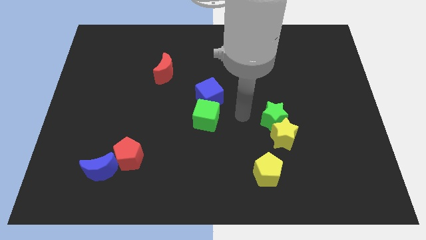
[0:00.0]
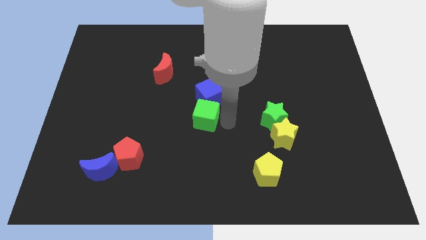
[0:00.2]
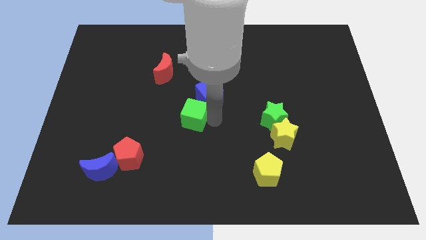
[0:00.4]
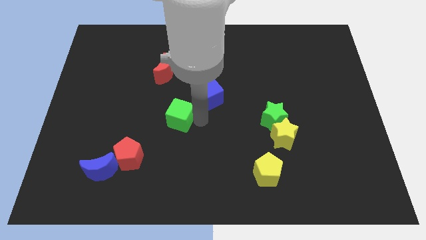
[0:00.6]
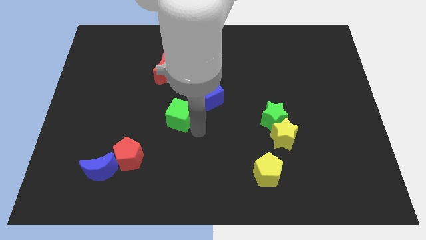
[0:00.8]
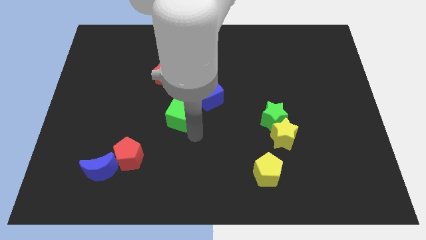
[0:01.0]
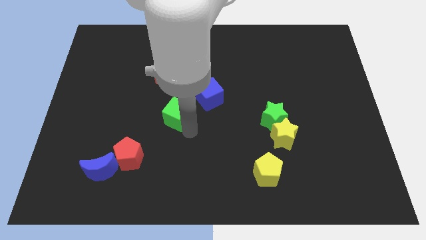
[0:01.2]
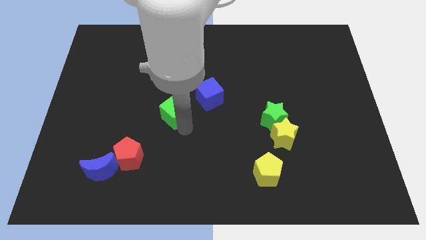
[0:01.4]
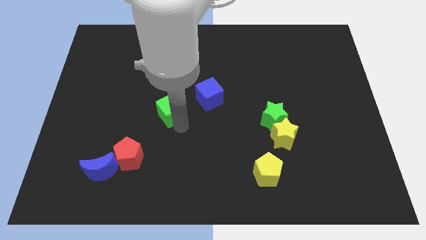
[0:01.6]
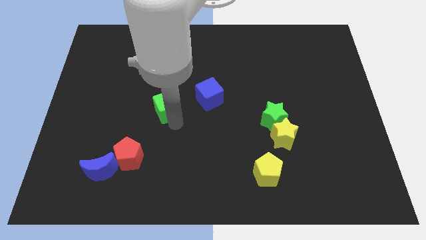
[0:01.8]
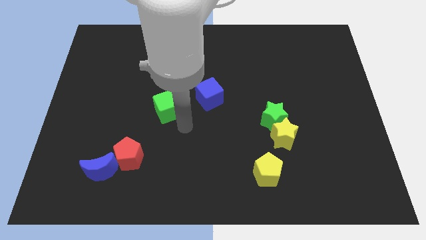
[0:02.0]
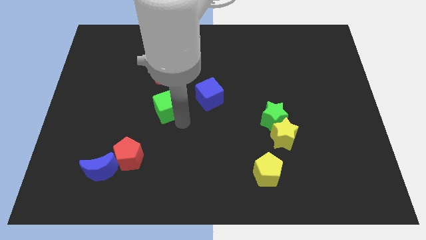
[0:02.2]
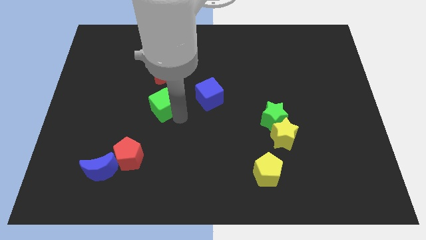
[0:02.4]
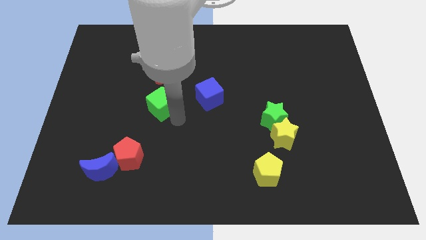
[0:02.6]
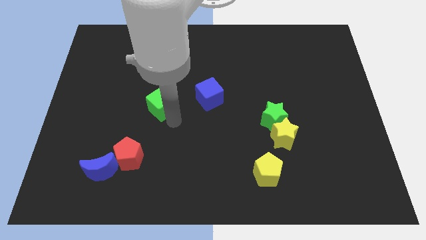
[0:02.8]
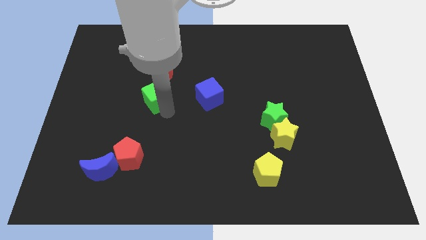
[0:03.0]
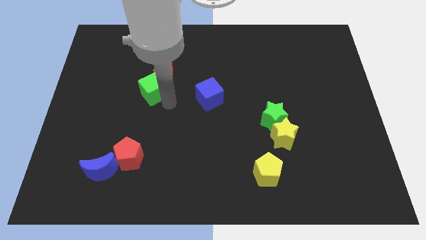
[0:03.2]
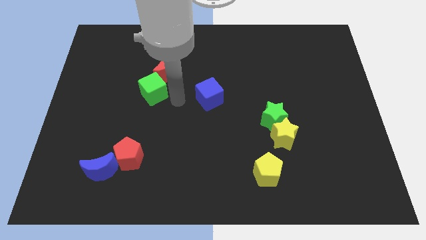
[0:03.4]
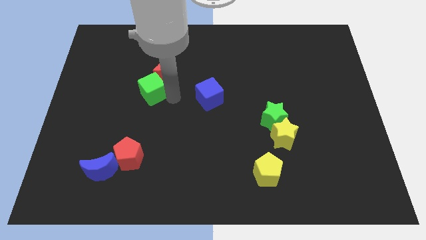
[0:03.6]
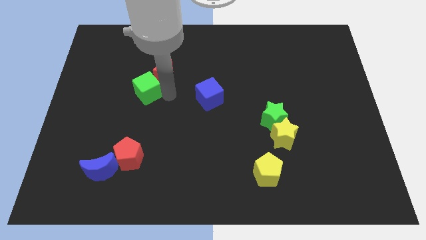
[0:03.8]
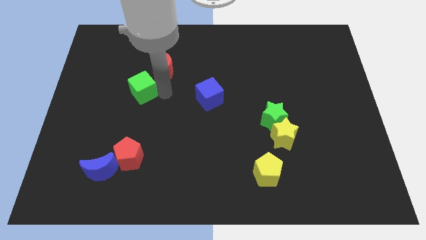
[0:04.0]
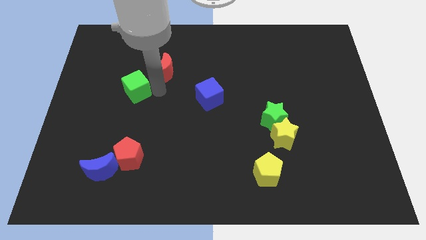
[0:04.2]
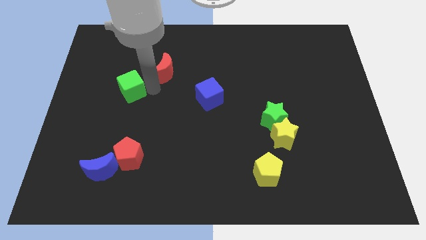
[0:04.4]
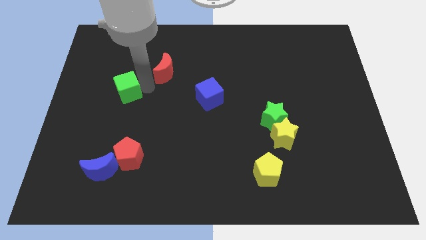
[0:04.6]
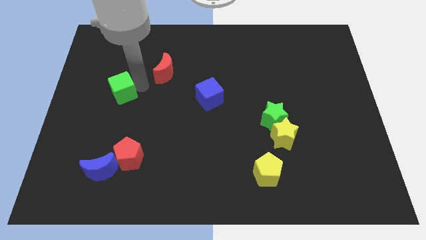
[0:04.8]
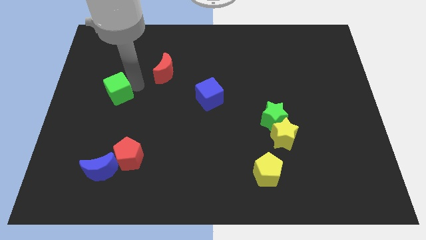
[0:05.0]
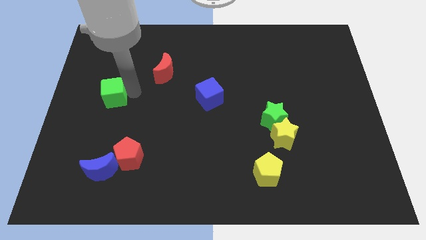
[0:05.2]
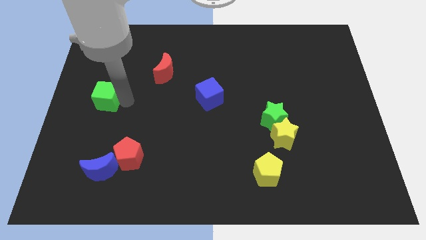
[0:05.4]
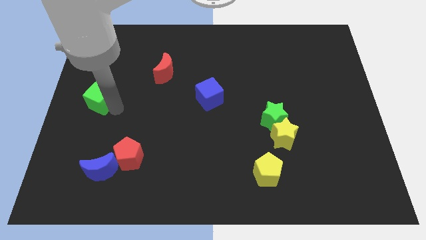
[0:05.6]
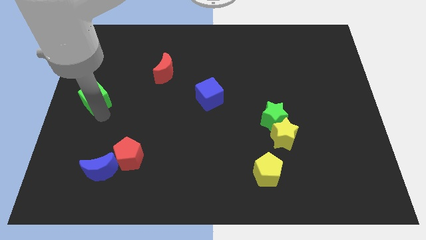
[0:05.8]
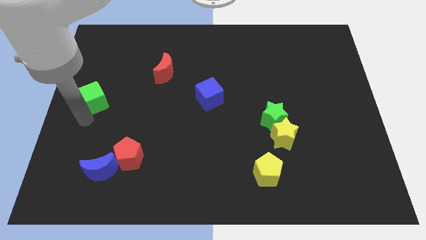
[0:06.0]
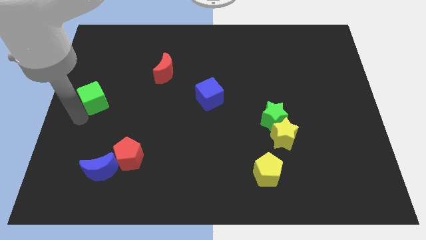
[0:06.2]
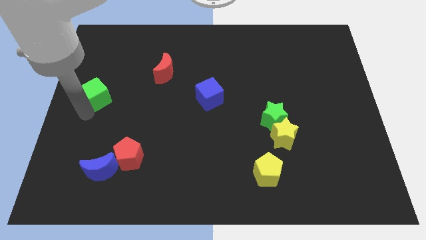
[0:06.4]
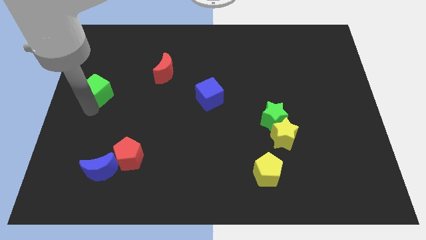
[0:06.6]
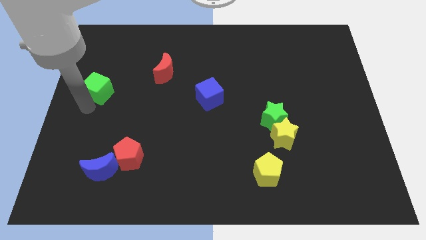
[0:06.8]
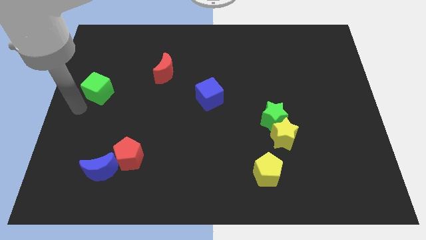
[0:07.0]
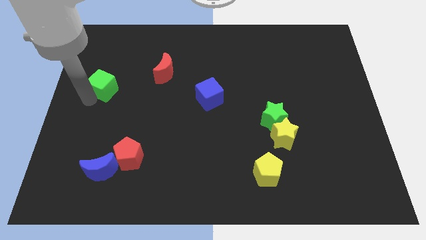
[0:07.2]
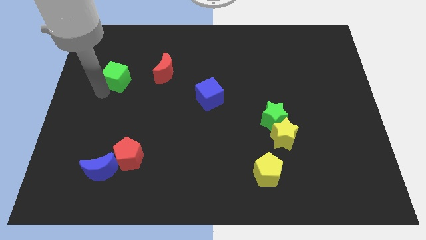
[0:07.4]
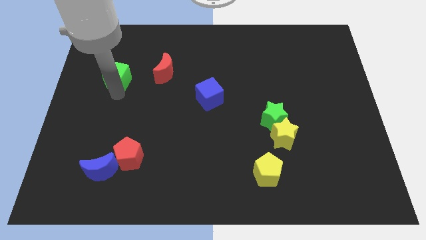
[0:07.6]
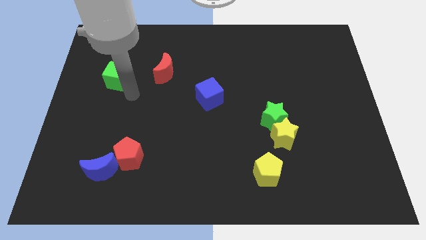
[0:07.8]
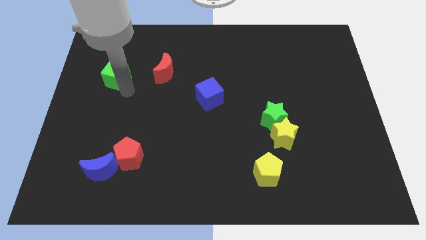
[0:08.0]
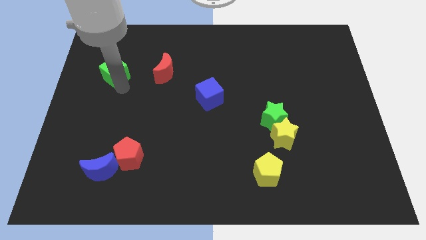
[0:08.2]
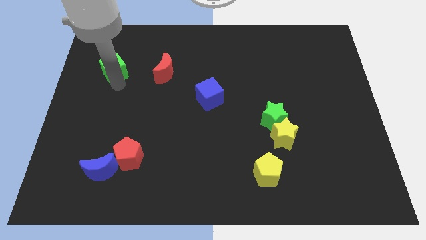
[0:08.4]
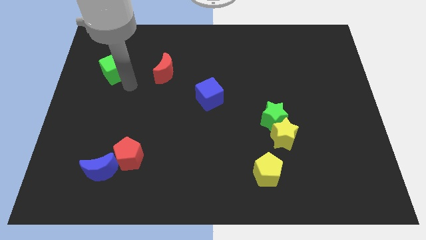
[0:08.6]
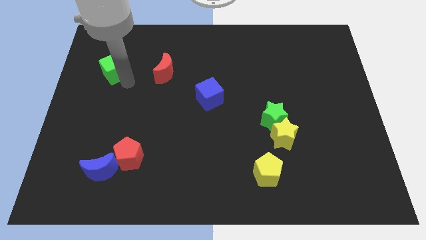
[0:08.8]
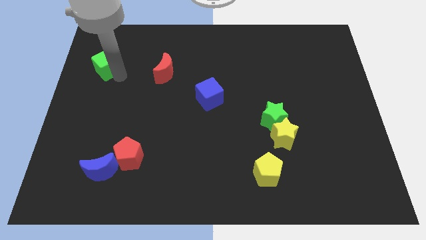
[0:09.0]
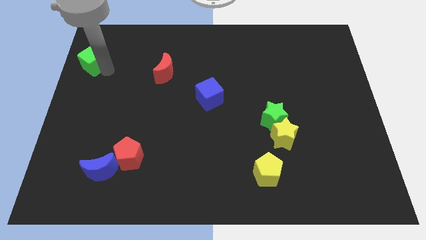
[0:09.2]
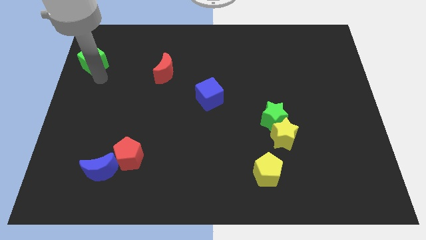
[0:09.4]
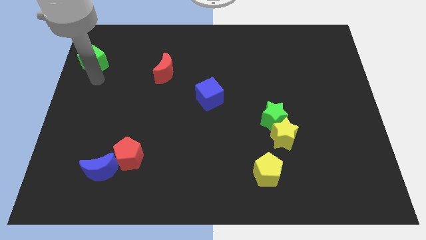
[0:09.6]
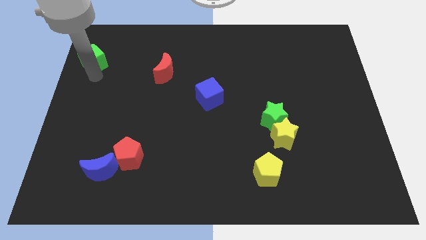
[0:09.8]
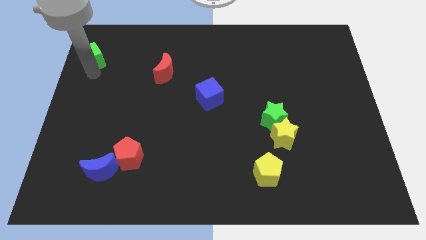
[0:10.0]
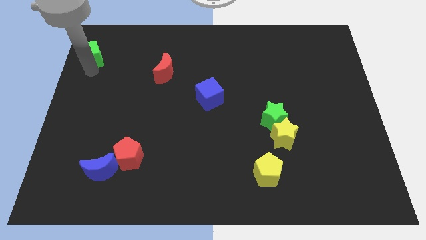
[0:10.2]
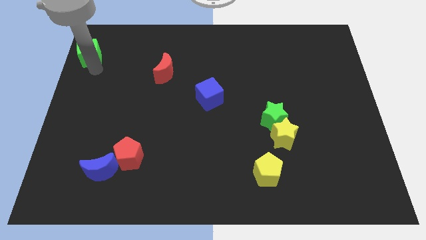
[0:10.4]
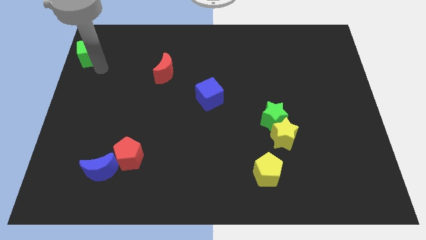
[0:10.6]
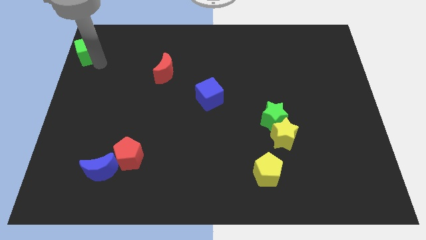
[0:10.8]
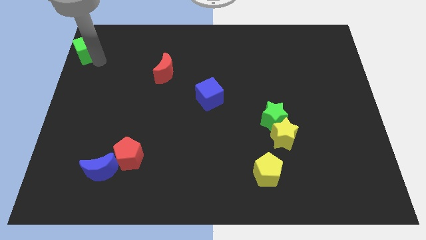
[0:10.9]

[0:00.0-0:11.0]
push the green cube to the upper left corner

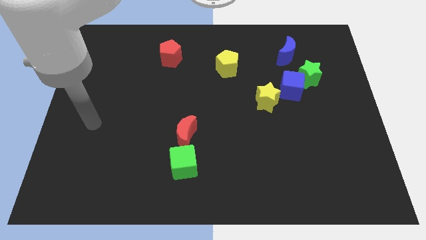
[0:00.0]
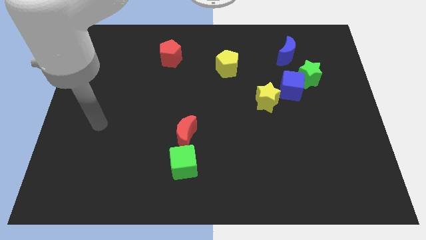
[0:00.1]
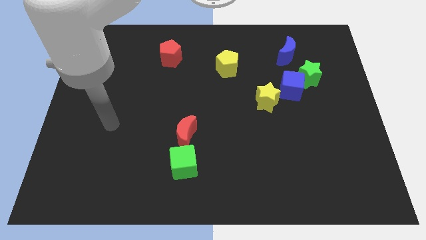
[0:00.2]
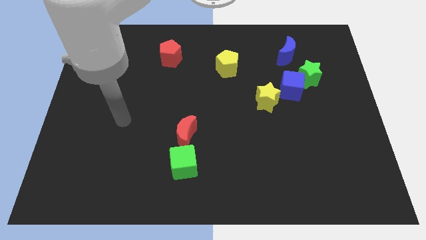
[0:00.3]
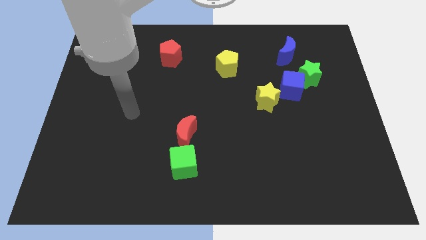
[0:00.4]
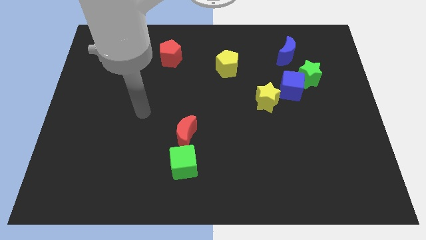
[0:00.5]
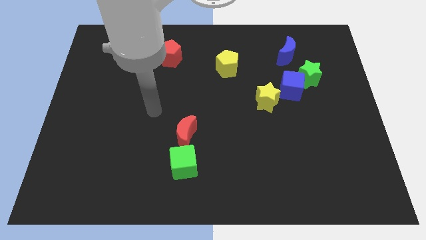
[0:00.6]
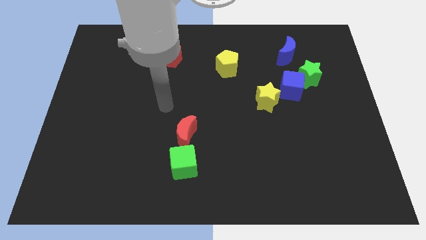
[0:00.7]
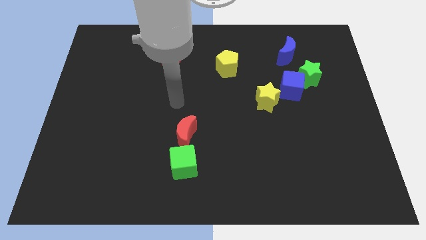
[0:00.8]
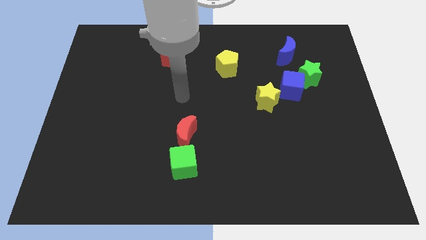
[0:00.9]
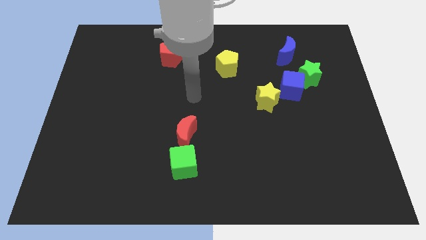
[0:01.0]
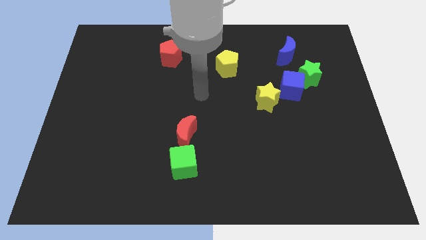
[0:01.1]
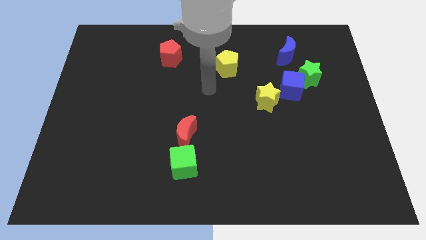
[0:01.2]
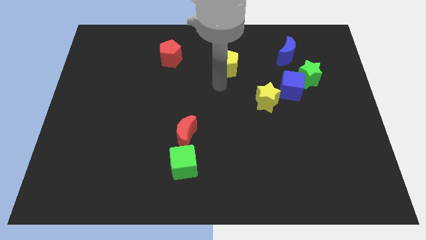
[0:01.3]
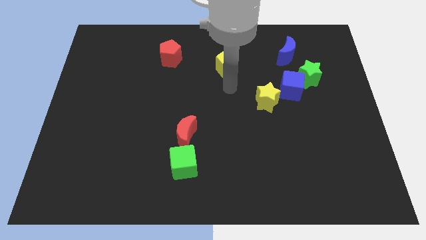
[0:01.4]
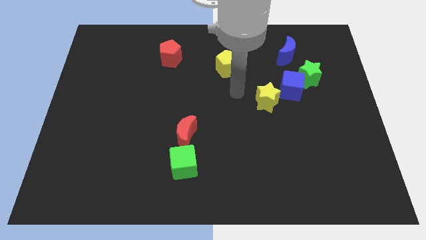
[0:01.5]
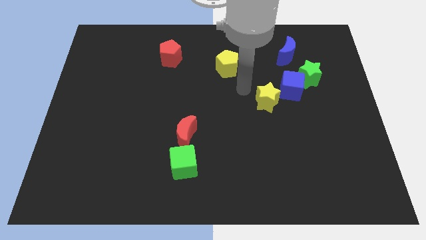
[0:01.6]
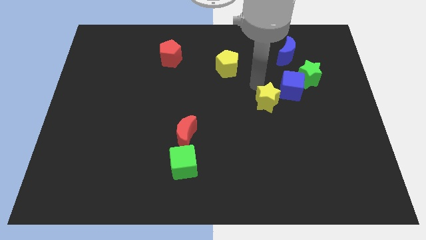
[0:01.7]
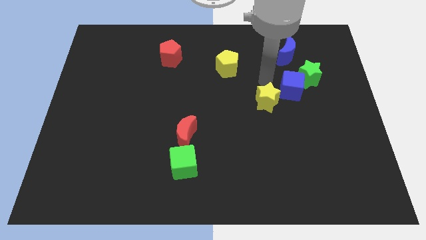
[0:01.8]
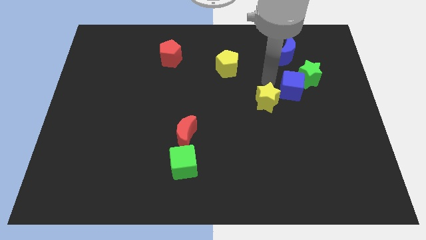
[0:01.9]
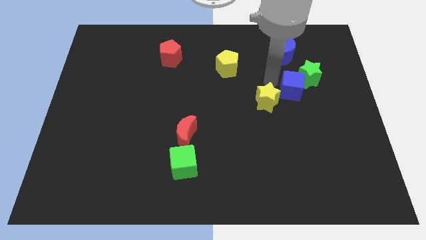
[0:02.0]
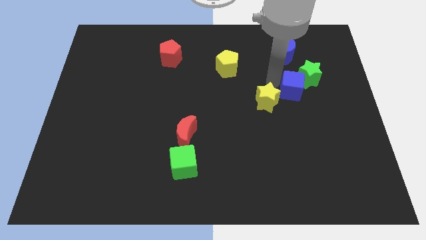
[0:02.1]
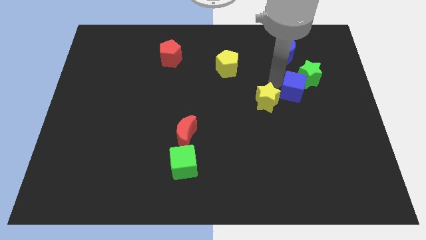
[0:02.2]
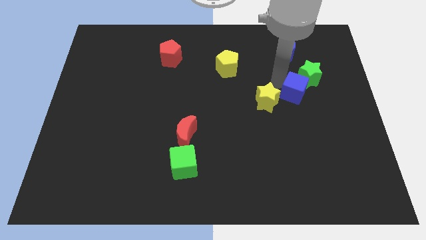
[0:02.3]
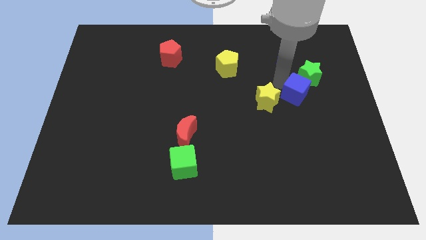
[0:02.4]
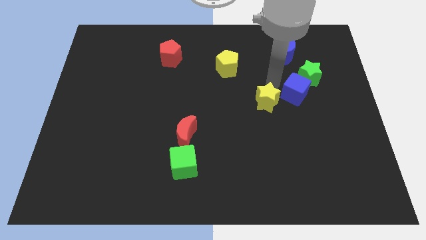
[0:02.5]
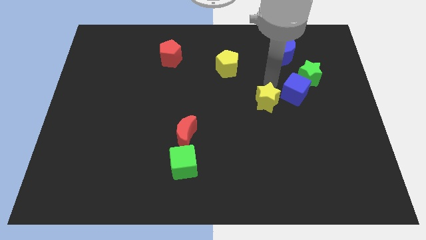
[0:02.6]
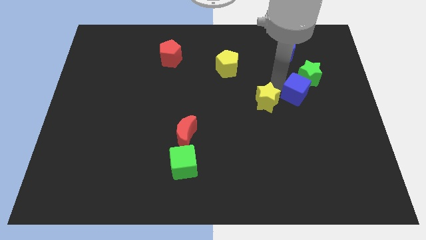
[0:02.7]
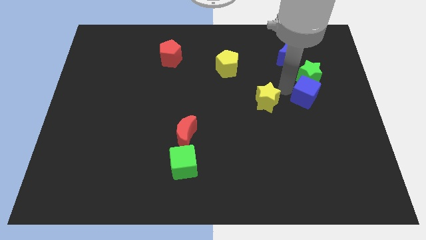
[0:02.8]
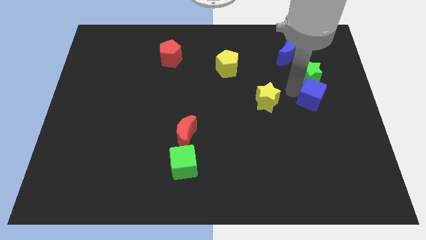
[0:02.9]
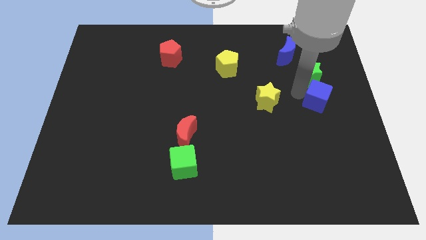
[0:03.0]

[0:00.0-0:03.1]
put the blue cube to the right side of the board
